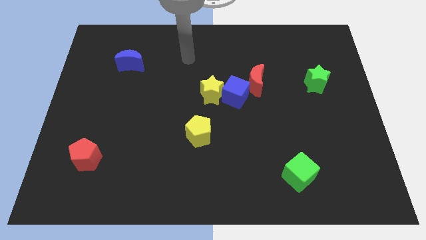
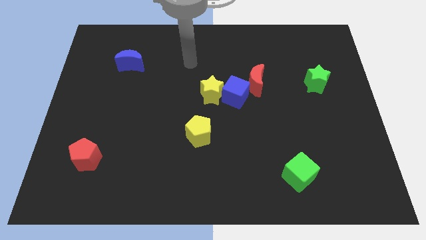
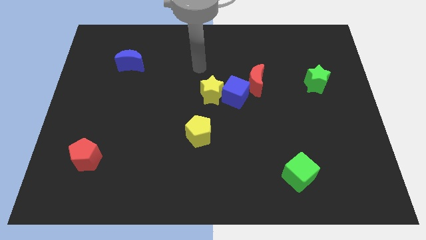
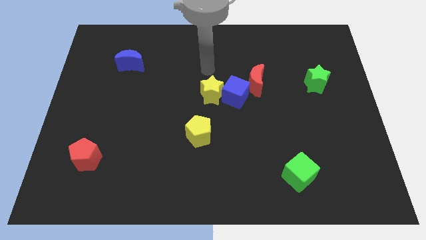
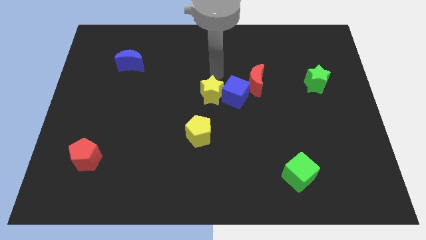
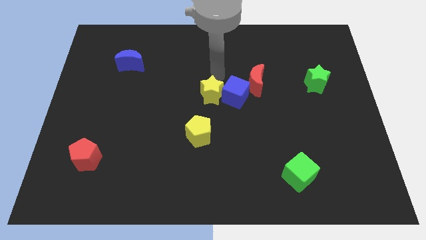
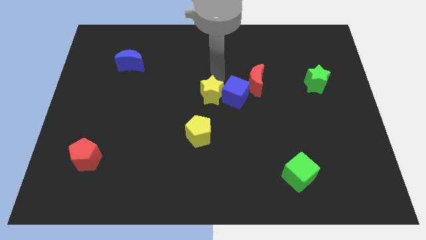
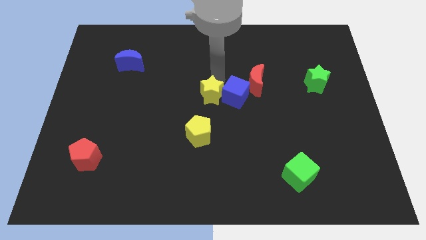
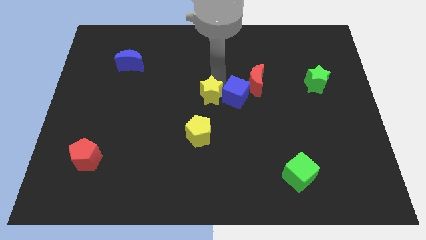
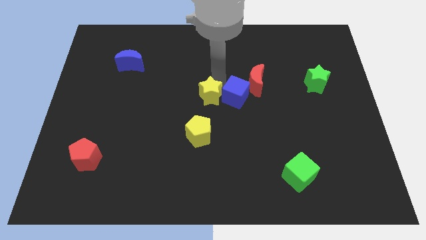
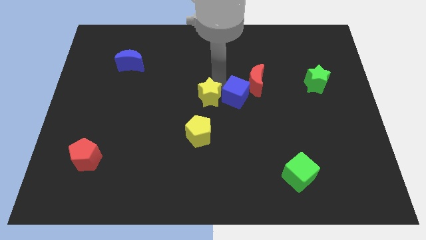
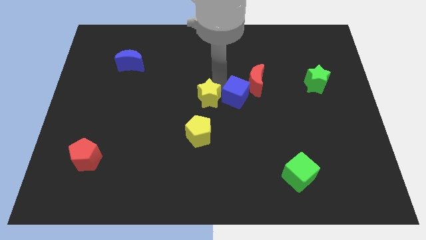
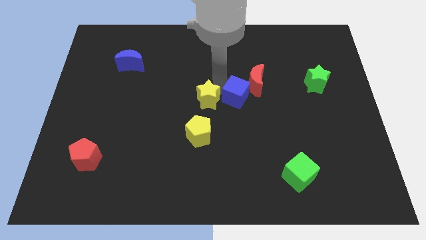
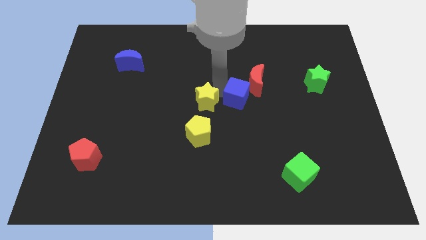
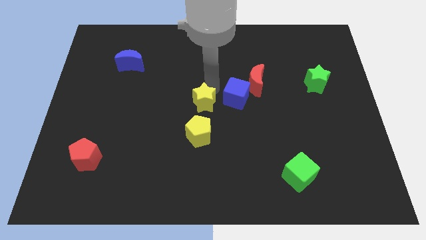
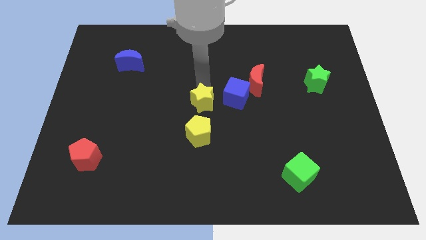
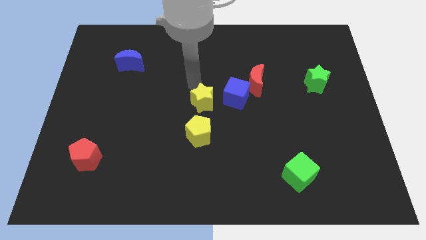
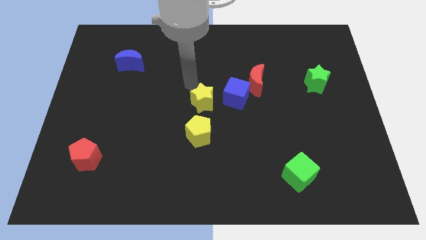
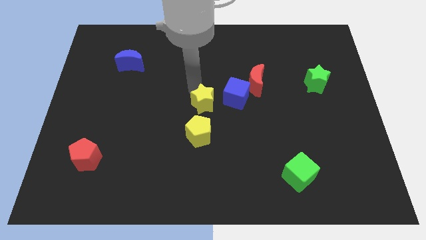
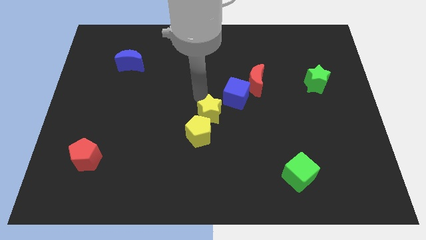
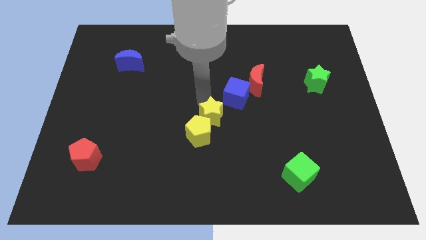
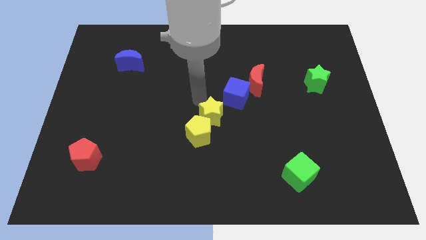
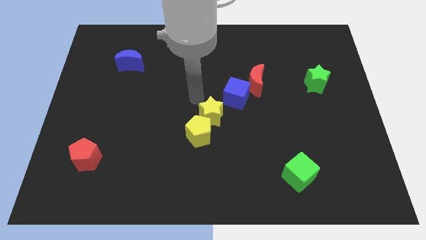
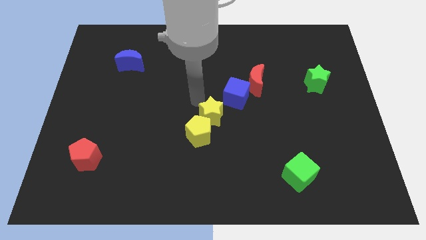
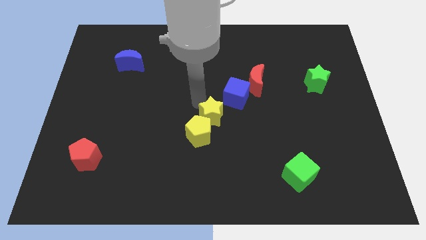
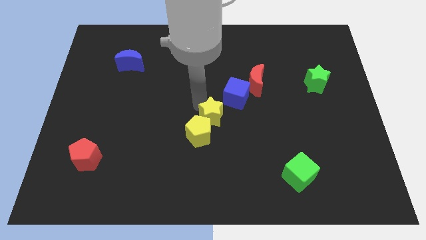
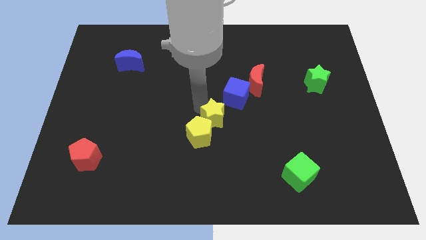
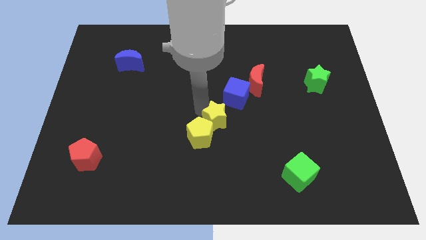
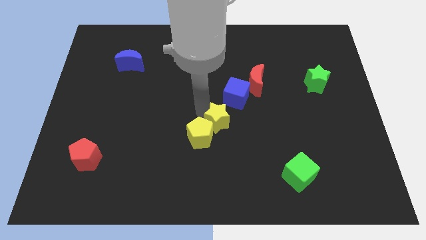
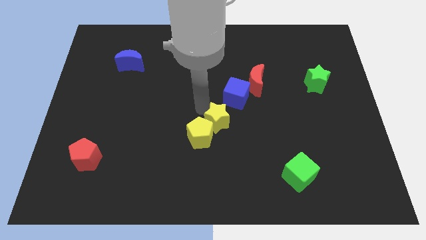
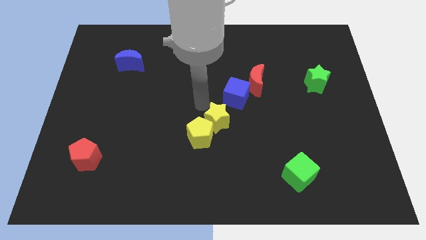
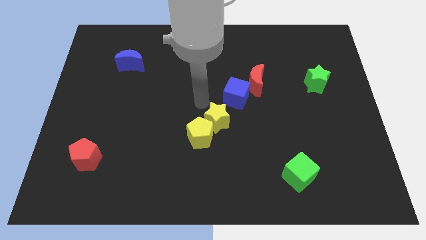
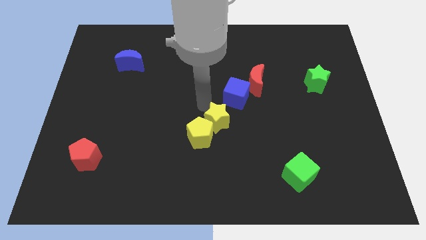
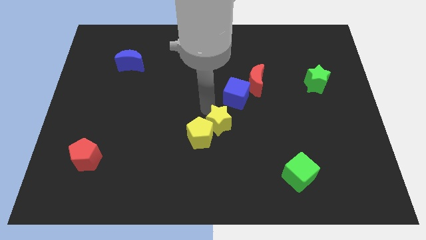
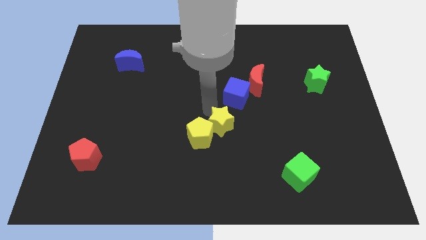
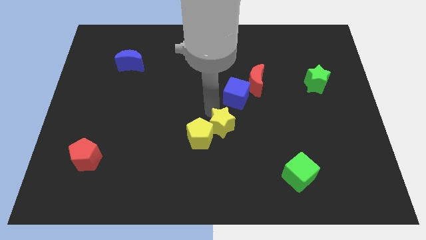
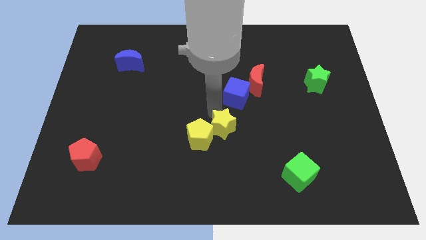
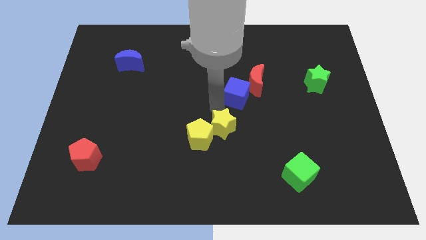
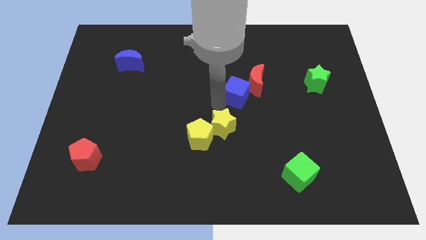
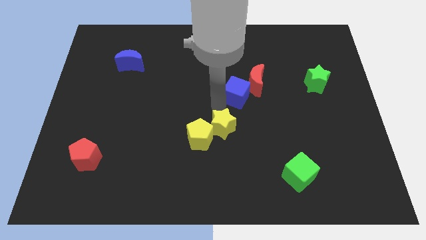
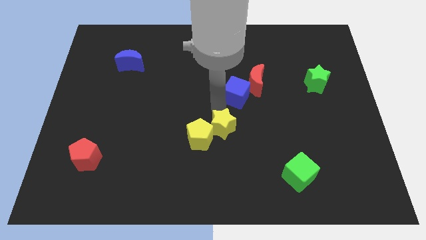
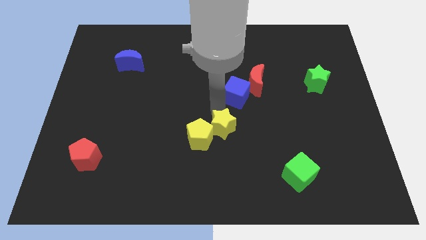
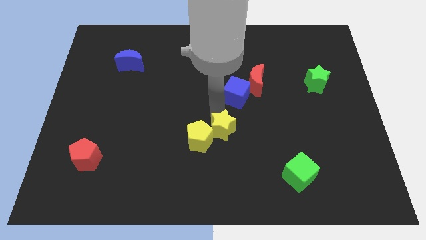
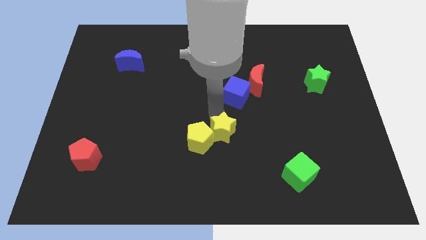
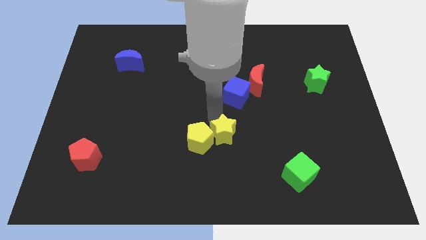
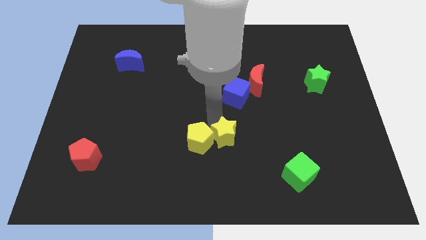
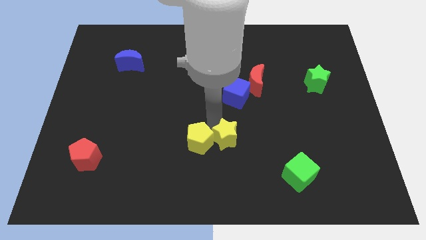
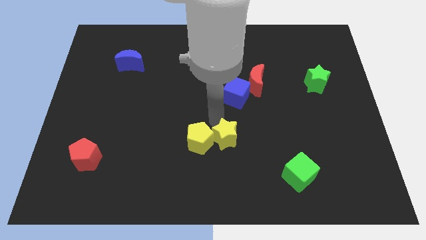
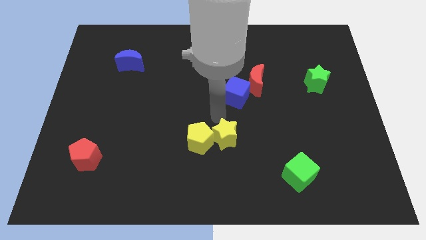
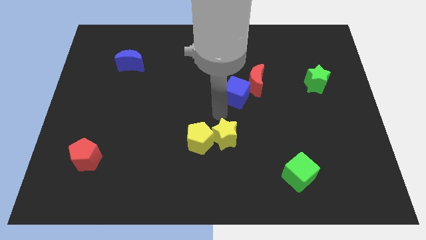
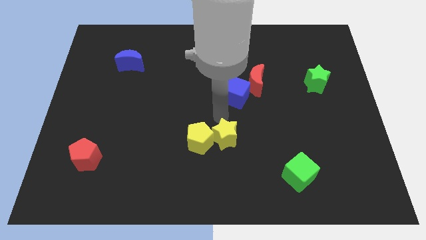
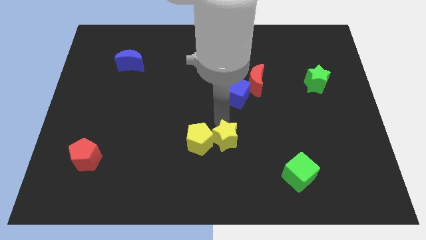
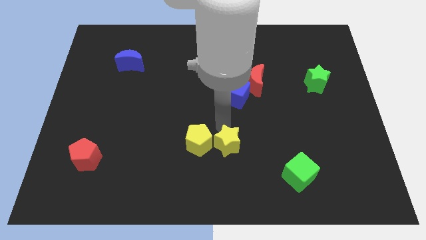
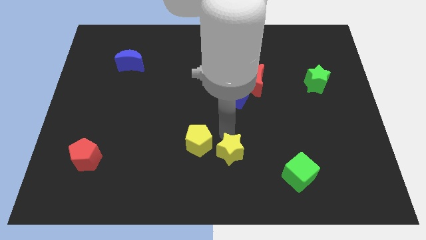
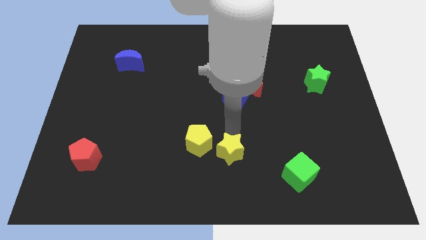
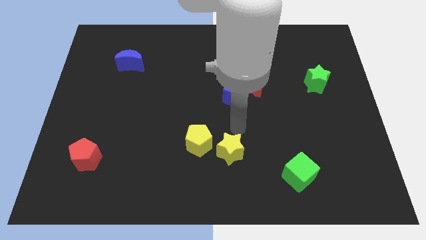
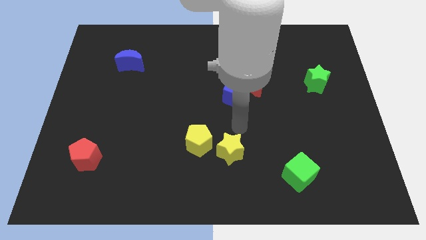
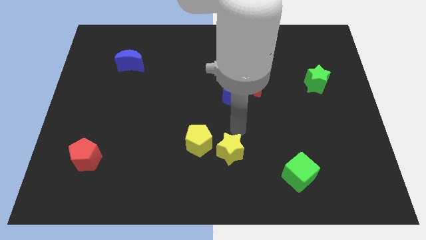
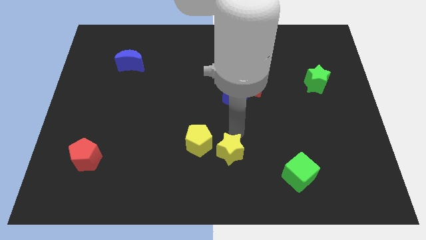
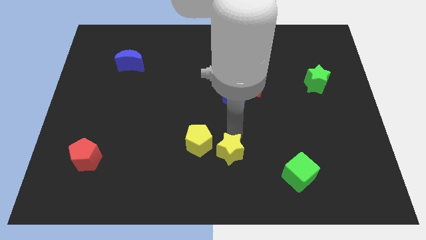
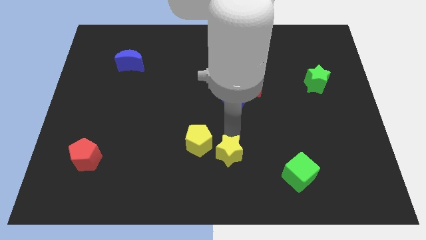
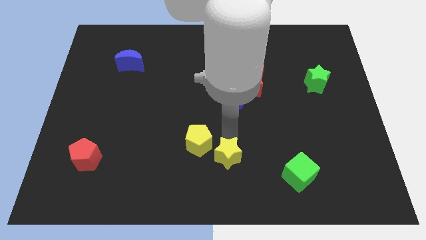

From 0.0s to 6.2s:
put the yellow star to the bottom

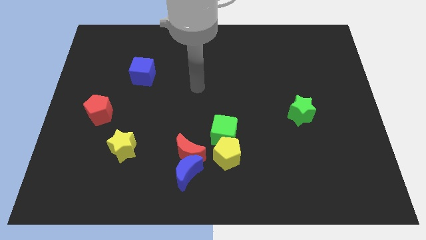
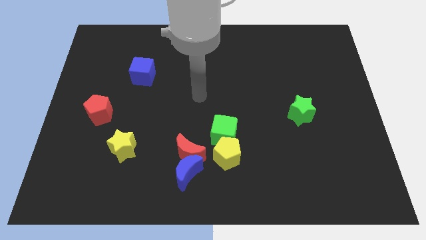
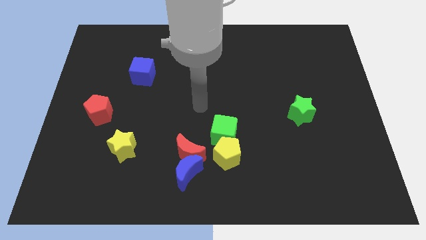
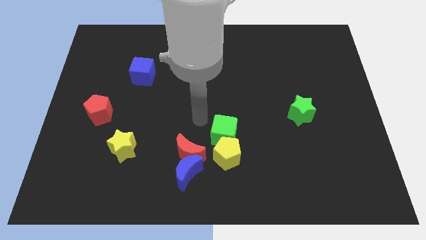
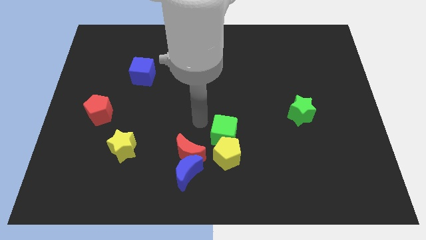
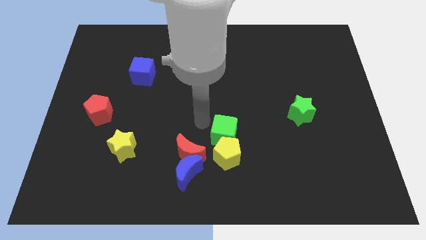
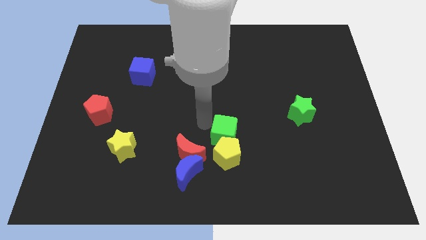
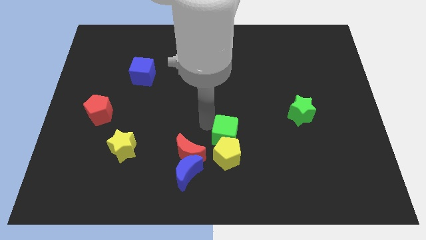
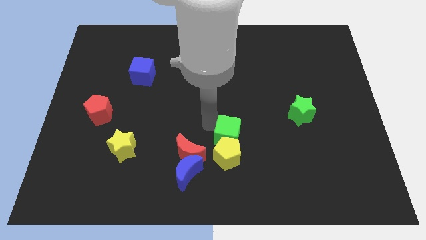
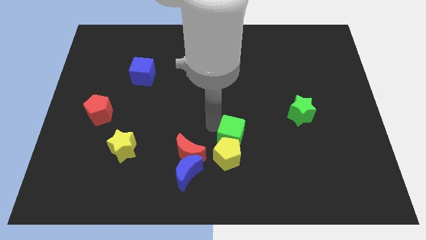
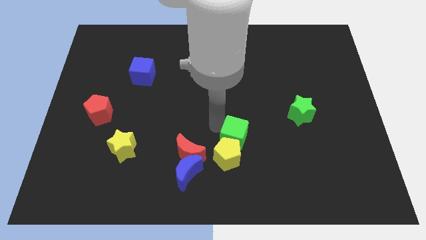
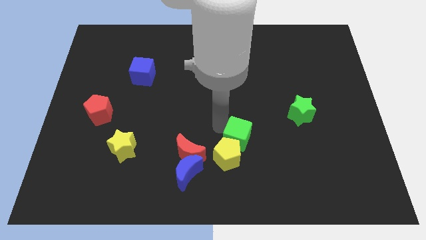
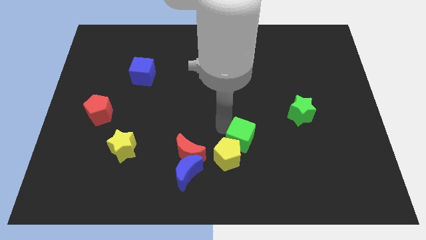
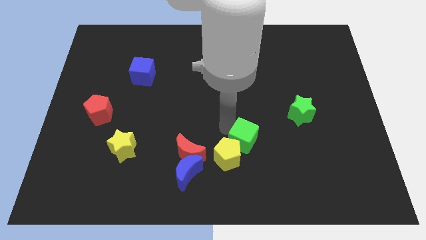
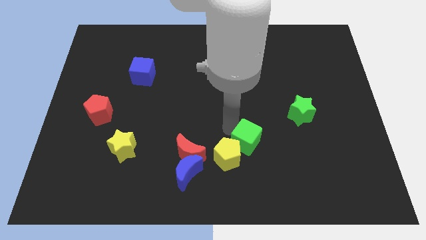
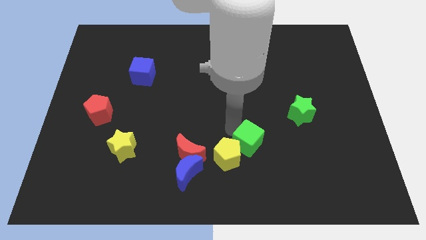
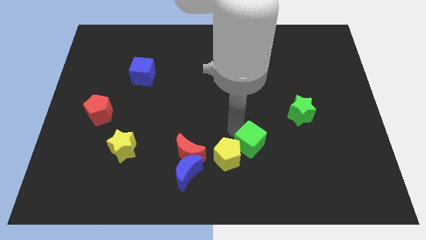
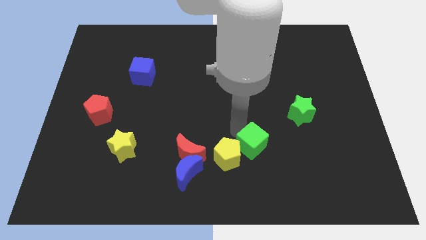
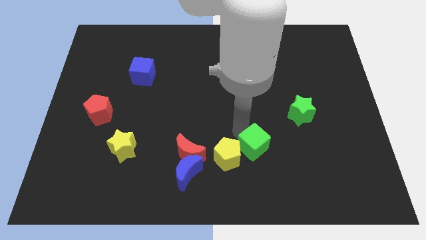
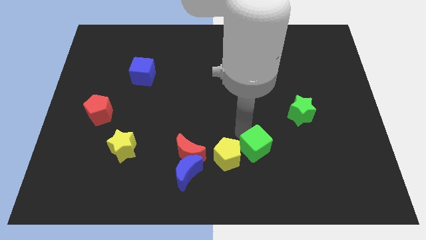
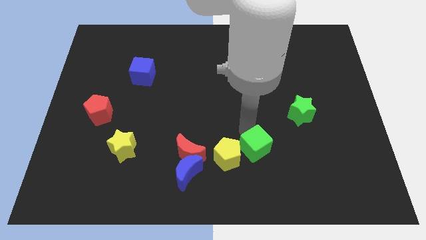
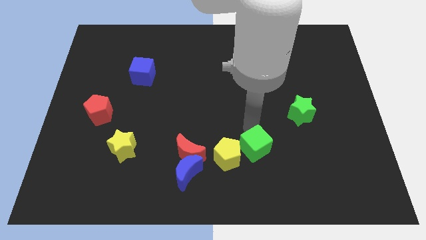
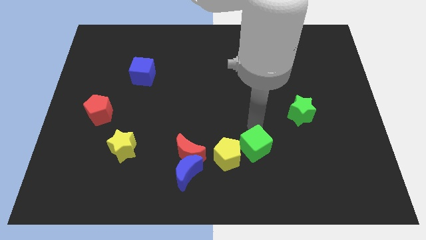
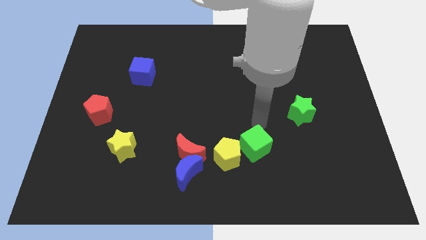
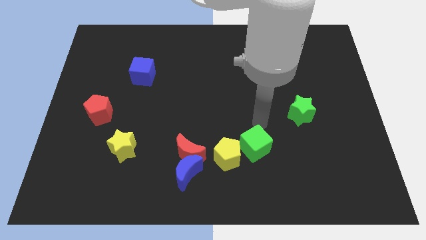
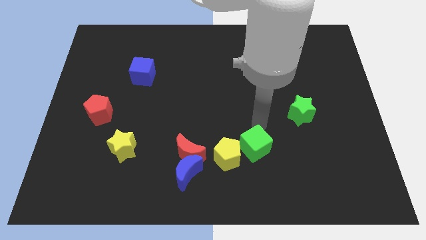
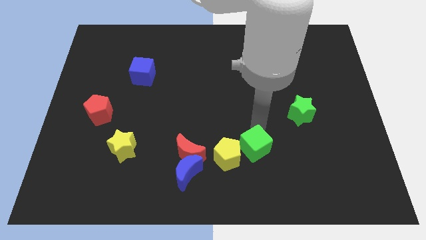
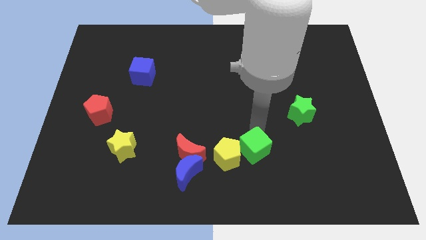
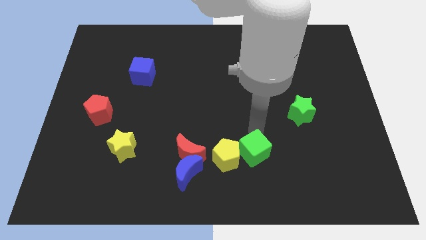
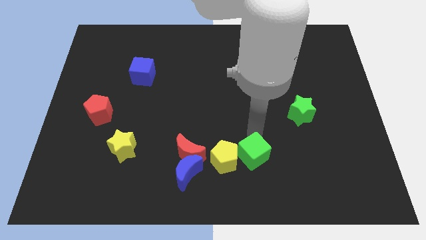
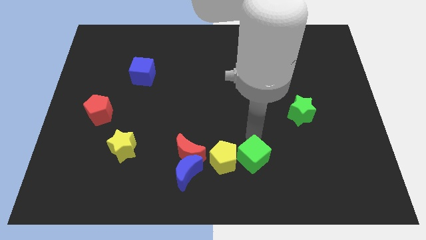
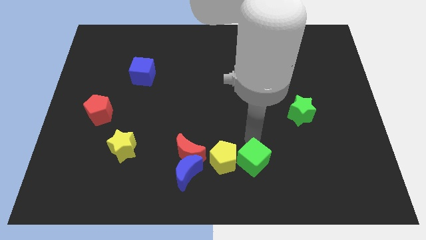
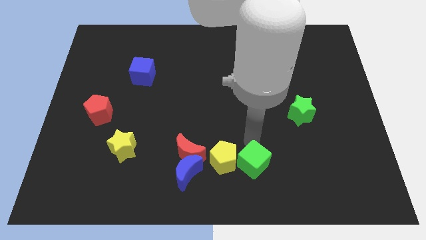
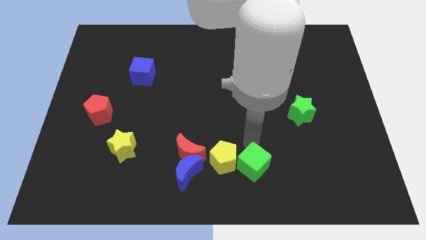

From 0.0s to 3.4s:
push the green cube to the bottom
